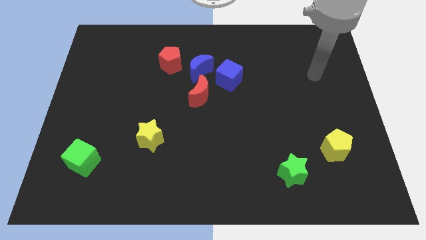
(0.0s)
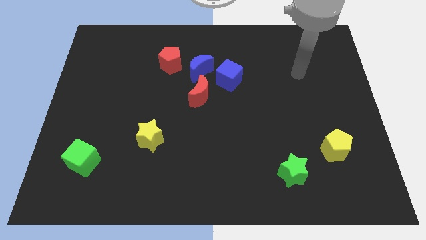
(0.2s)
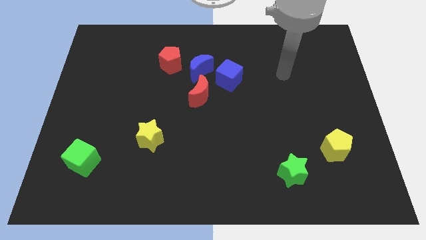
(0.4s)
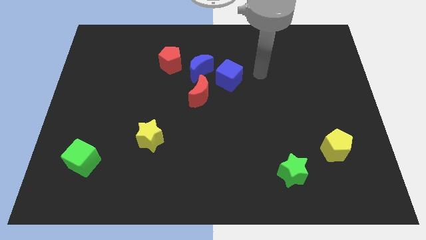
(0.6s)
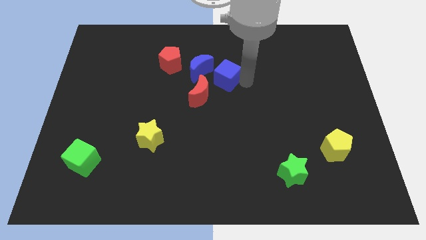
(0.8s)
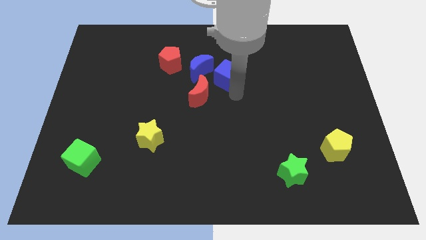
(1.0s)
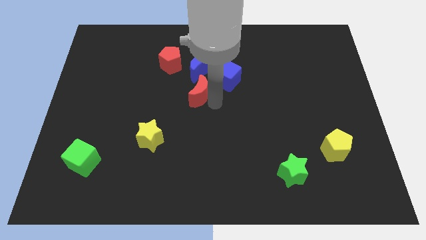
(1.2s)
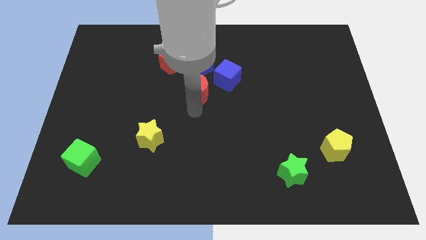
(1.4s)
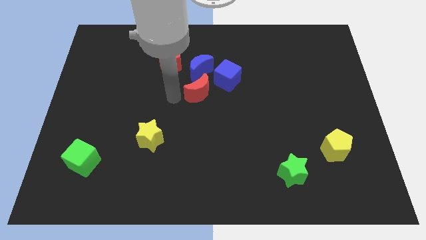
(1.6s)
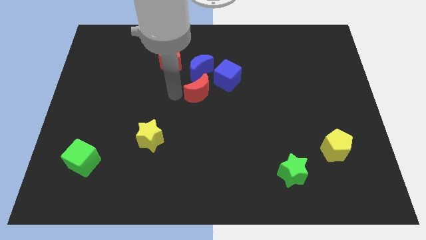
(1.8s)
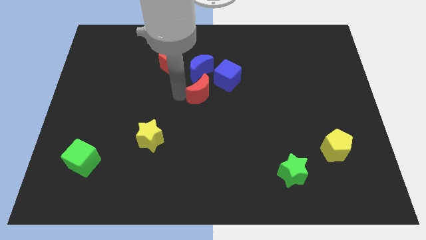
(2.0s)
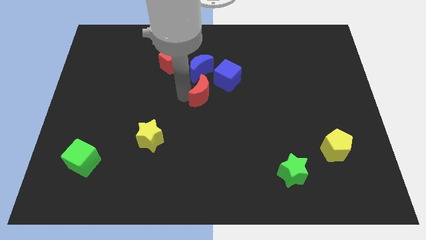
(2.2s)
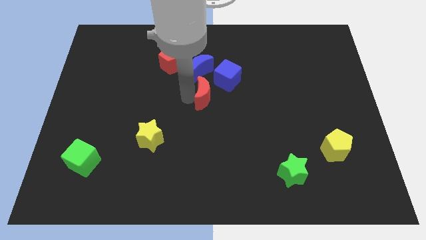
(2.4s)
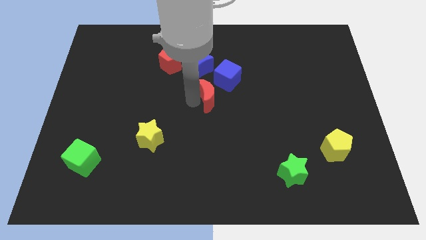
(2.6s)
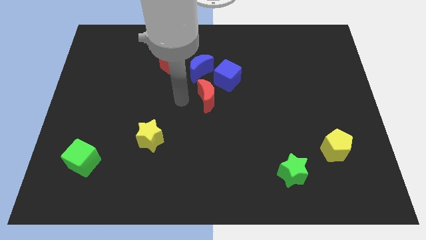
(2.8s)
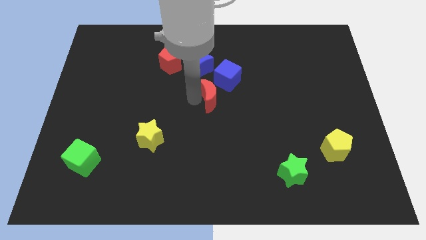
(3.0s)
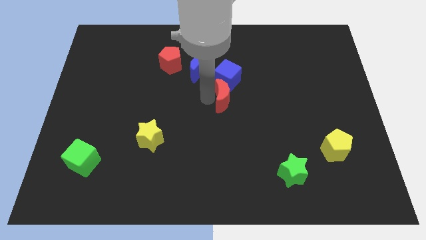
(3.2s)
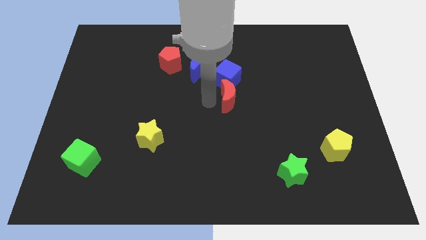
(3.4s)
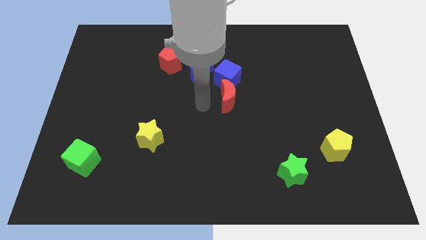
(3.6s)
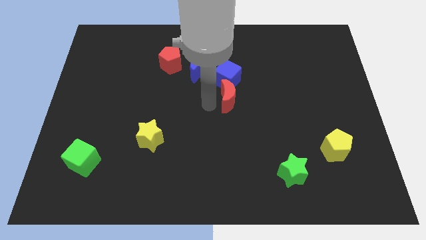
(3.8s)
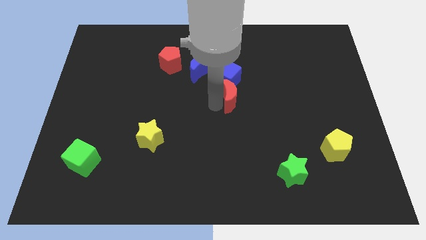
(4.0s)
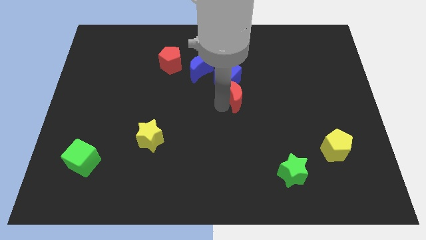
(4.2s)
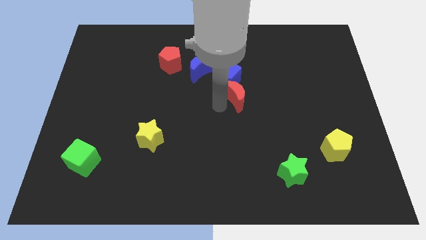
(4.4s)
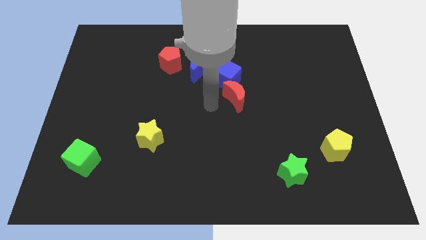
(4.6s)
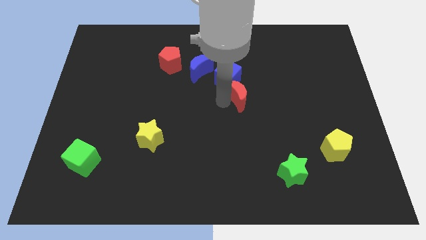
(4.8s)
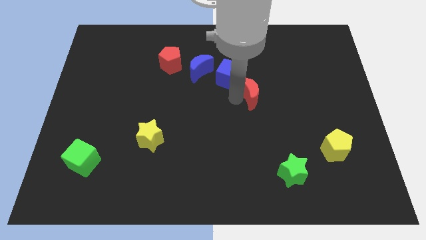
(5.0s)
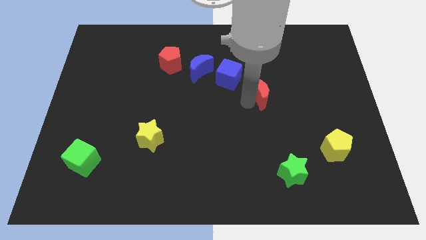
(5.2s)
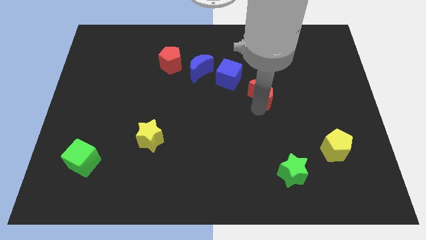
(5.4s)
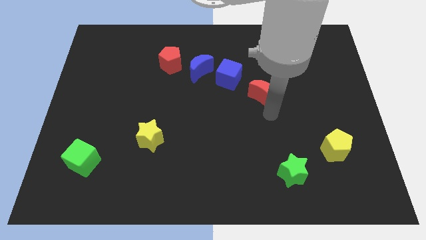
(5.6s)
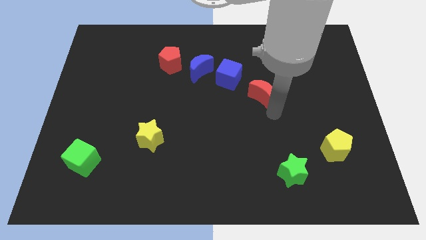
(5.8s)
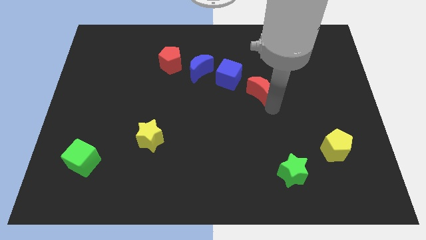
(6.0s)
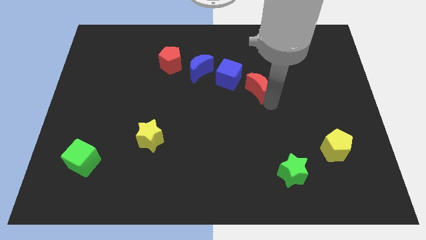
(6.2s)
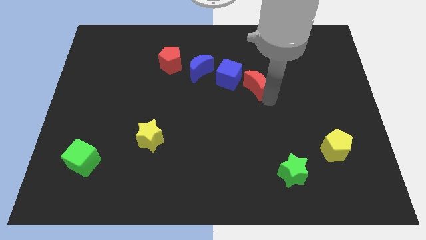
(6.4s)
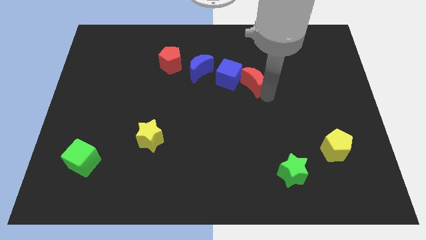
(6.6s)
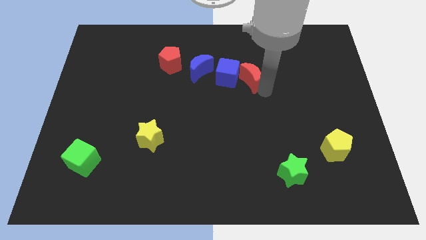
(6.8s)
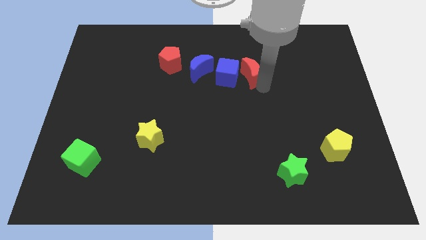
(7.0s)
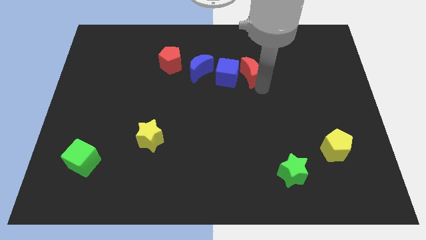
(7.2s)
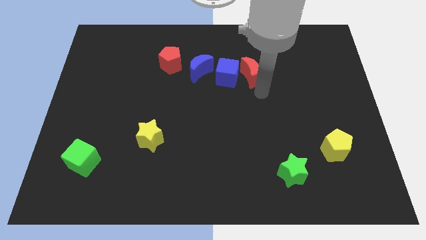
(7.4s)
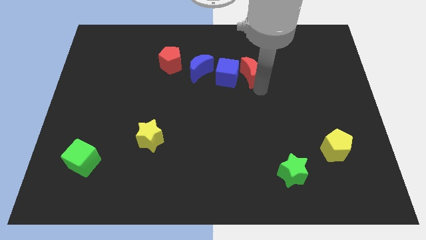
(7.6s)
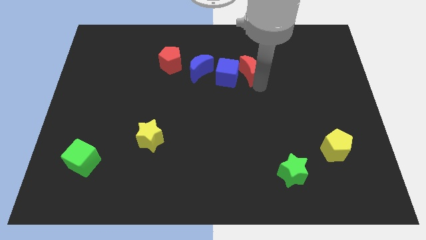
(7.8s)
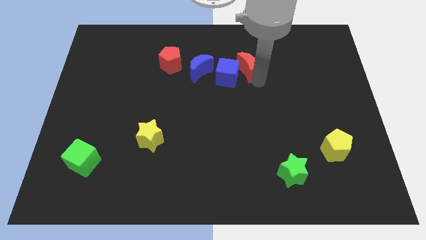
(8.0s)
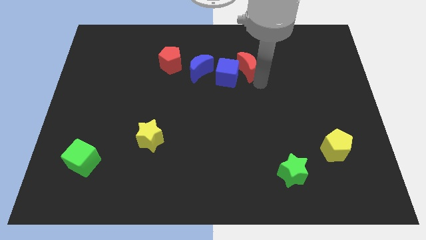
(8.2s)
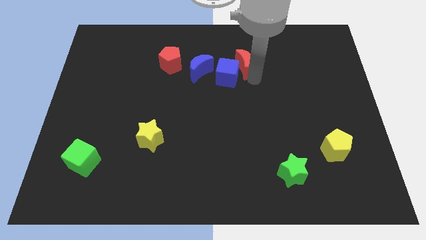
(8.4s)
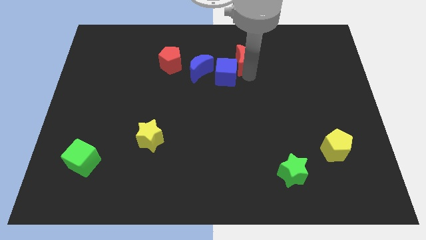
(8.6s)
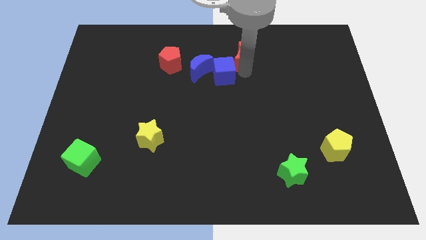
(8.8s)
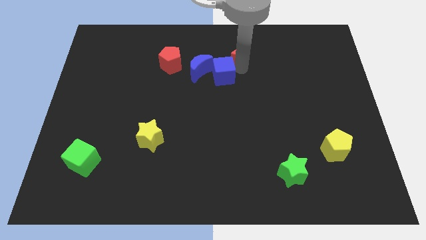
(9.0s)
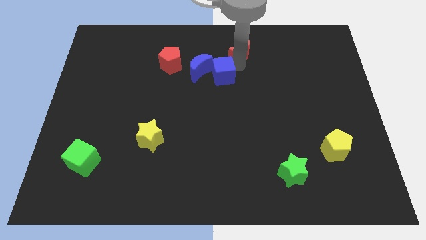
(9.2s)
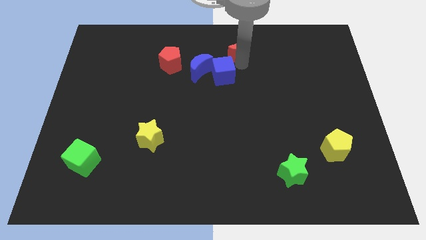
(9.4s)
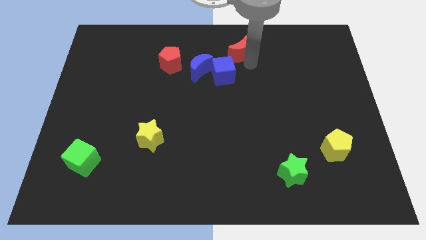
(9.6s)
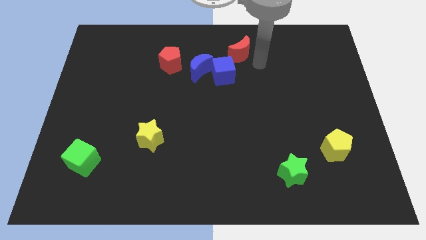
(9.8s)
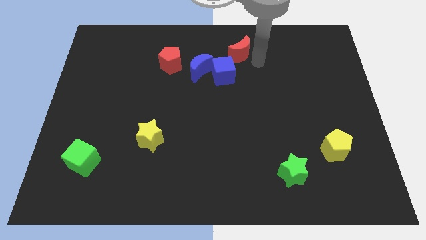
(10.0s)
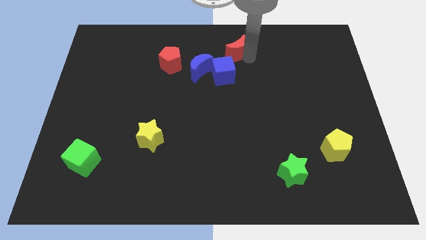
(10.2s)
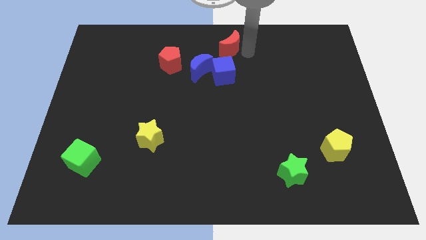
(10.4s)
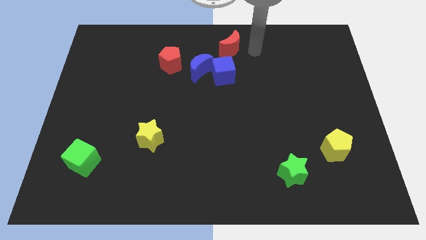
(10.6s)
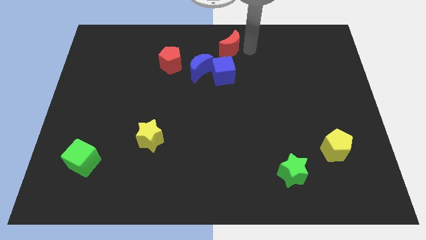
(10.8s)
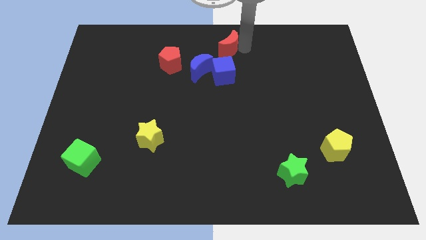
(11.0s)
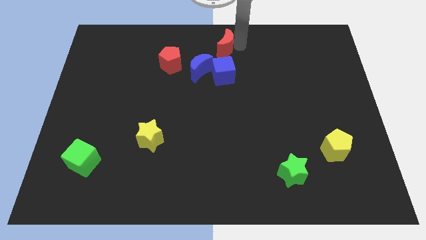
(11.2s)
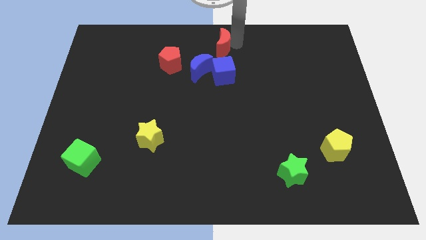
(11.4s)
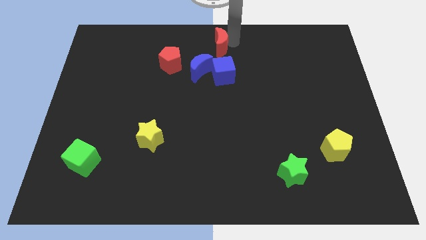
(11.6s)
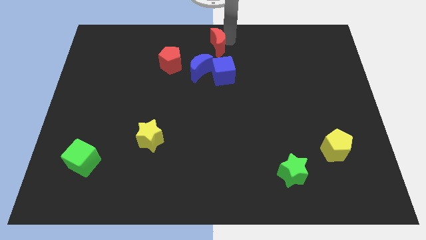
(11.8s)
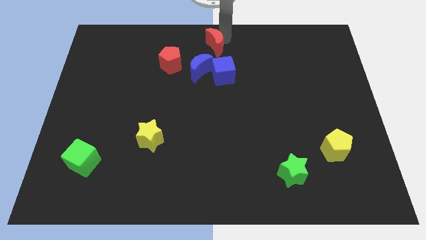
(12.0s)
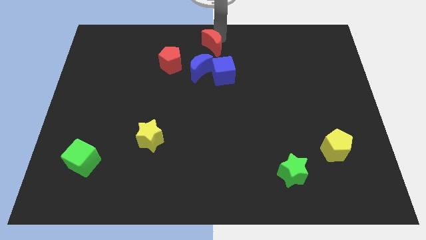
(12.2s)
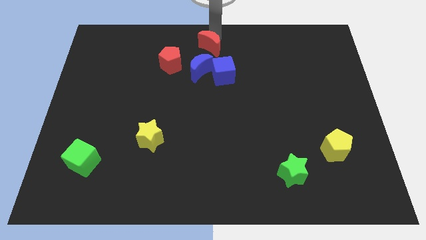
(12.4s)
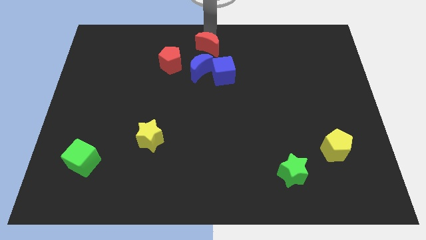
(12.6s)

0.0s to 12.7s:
put the red moon diagonally up and to the left of the blue cube
